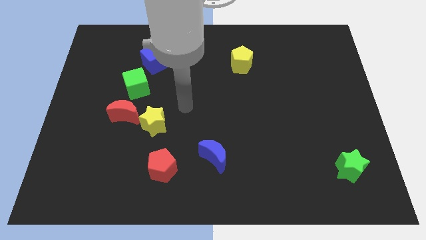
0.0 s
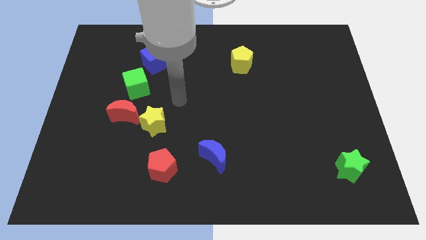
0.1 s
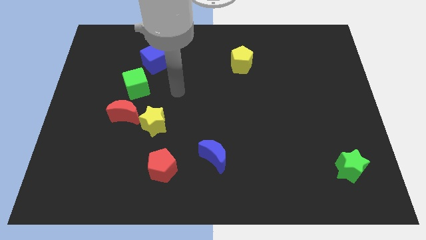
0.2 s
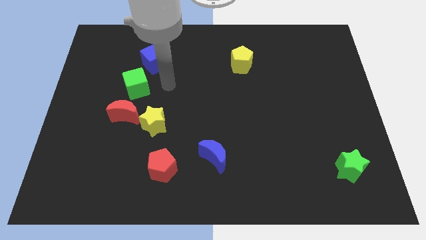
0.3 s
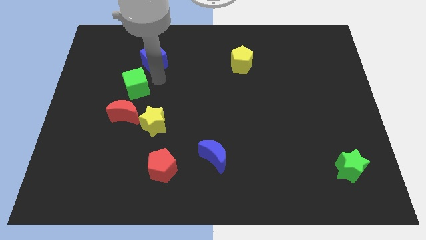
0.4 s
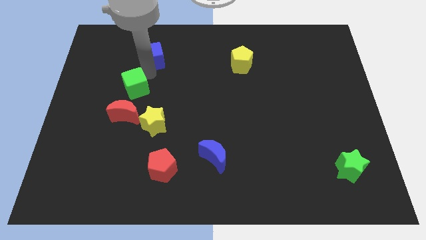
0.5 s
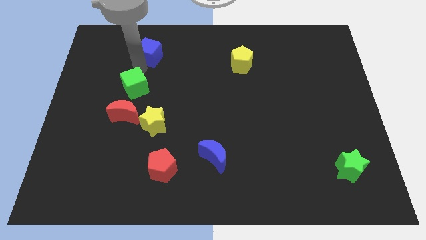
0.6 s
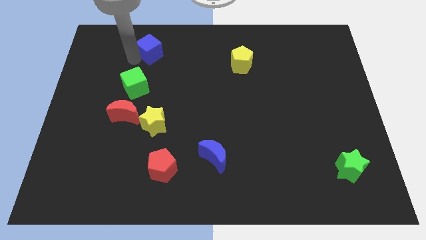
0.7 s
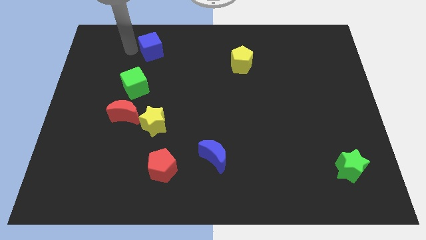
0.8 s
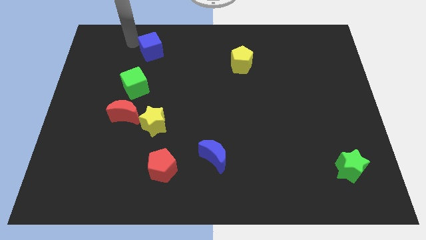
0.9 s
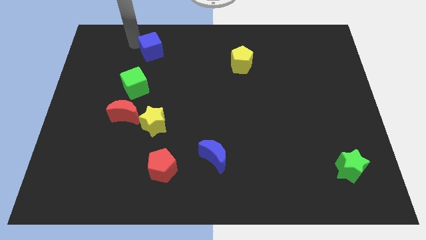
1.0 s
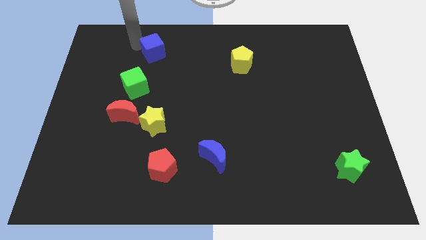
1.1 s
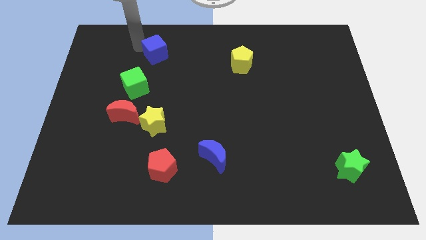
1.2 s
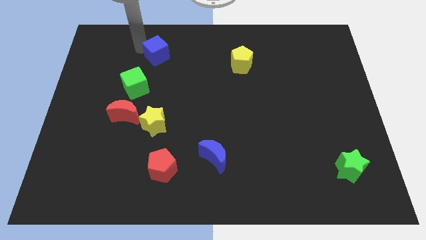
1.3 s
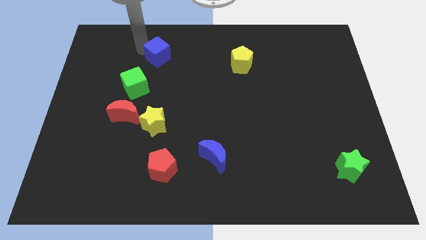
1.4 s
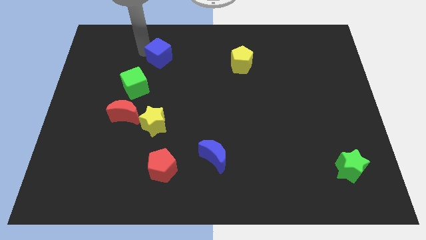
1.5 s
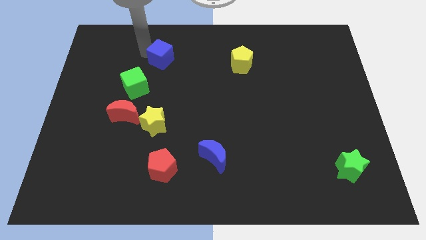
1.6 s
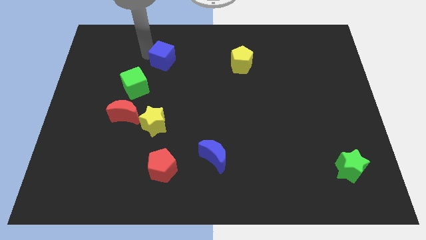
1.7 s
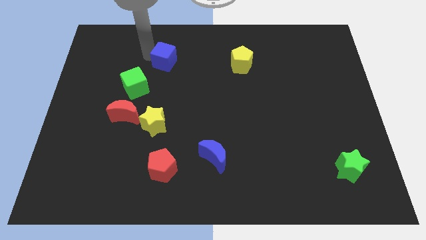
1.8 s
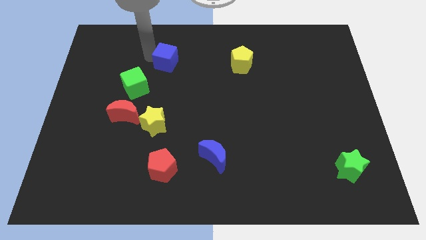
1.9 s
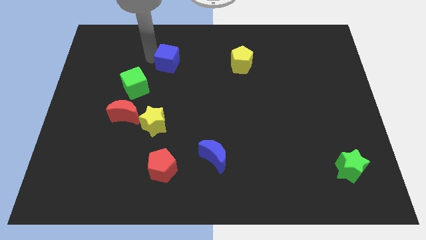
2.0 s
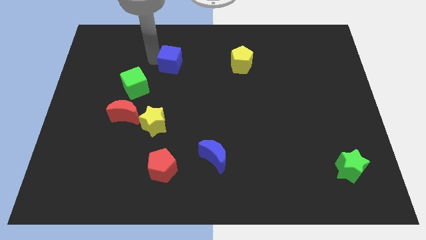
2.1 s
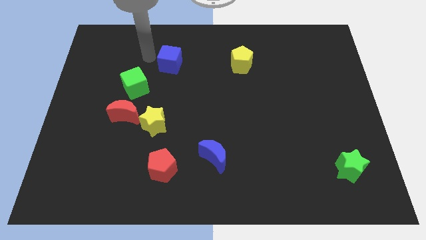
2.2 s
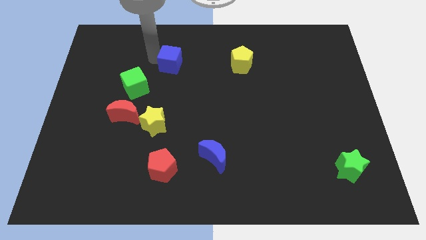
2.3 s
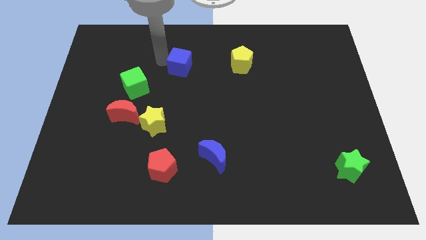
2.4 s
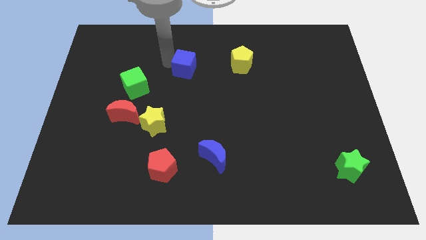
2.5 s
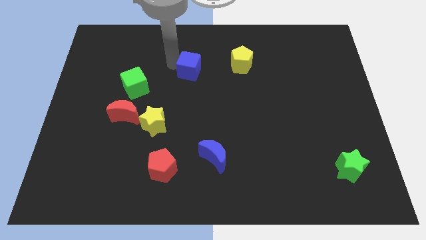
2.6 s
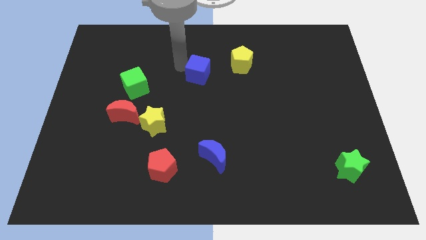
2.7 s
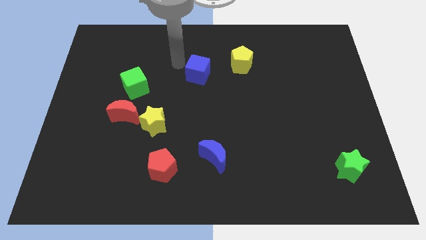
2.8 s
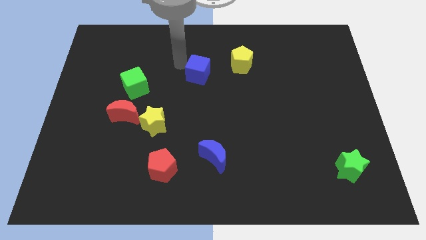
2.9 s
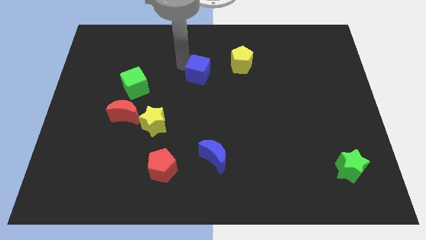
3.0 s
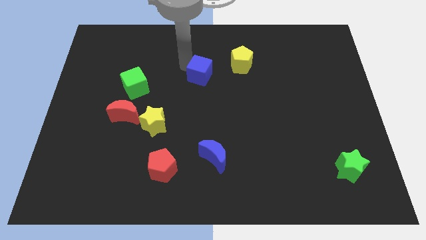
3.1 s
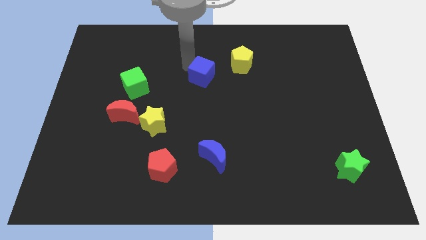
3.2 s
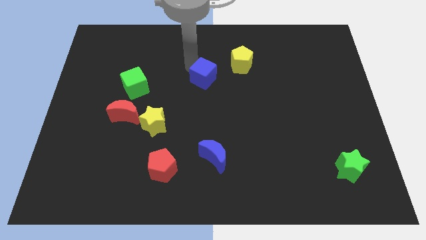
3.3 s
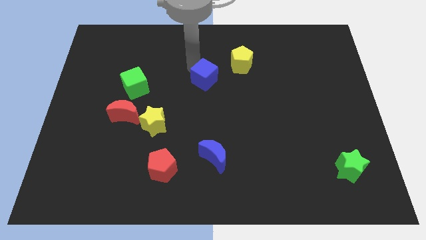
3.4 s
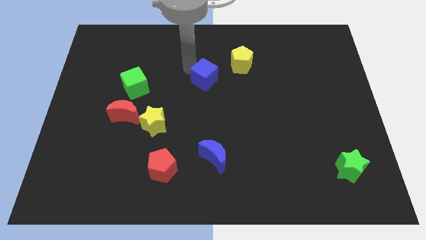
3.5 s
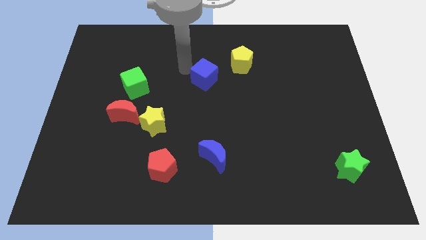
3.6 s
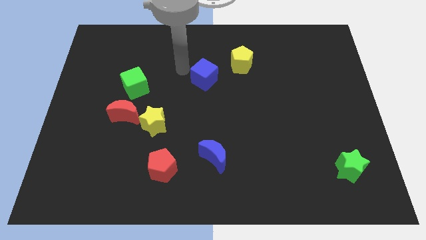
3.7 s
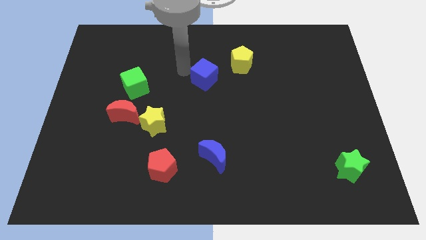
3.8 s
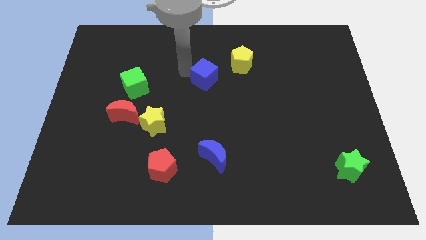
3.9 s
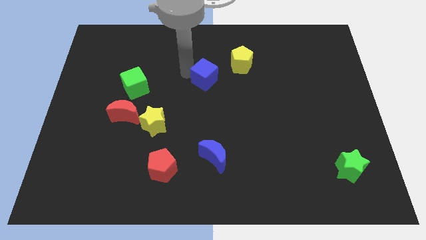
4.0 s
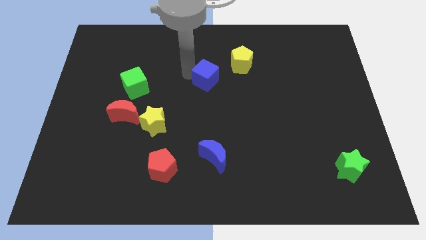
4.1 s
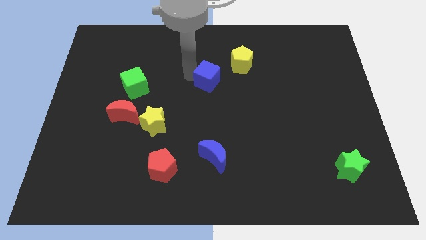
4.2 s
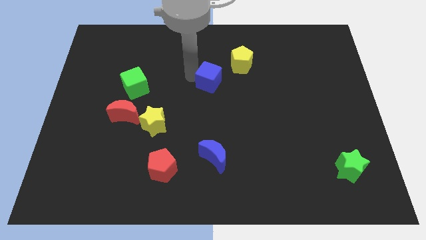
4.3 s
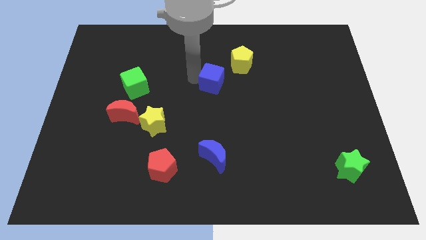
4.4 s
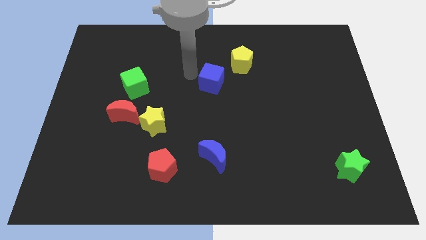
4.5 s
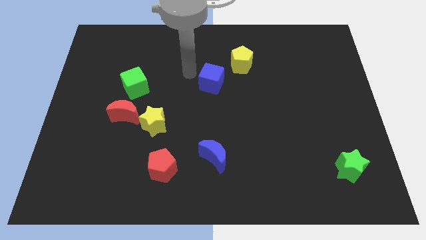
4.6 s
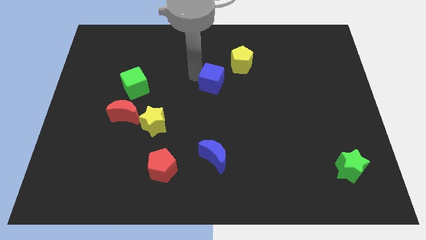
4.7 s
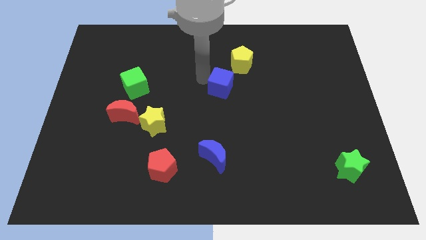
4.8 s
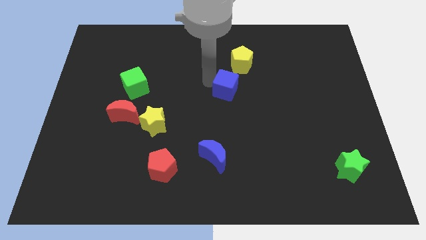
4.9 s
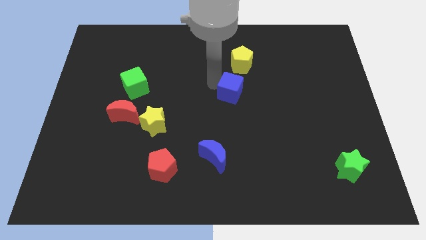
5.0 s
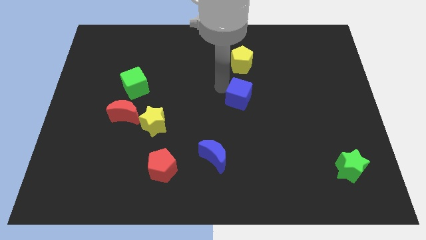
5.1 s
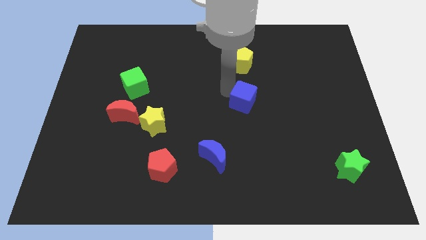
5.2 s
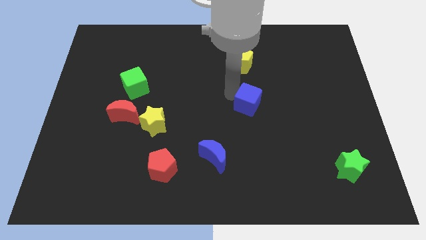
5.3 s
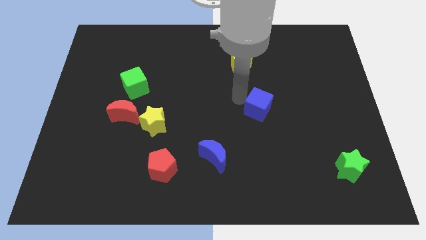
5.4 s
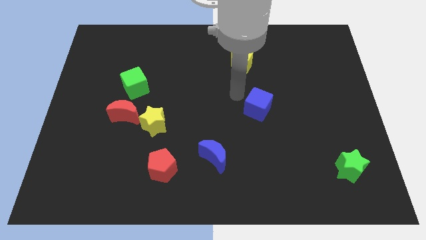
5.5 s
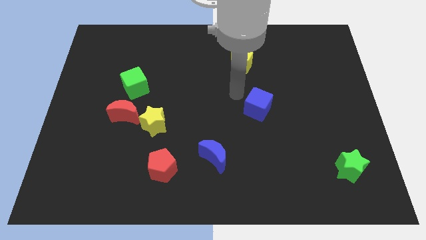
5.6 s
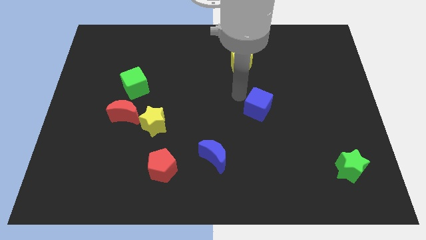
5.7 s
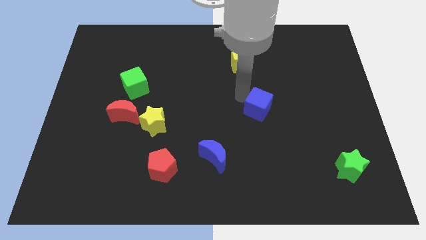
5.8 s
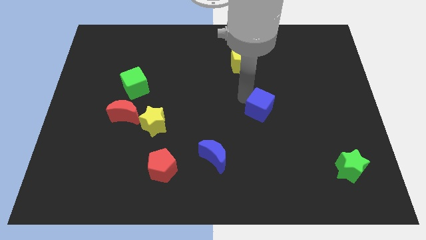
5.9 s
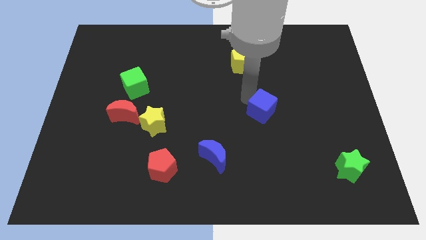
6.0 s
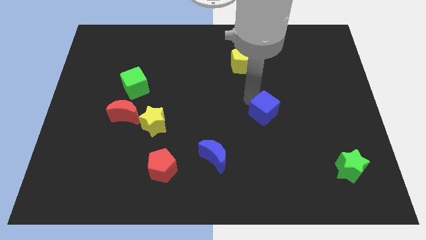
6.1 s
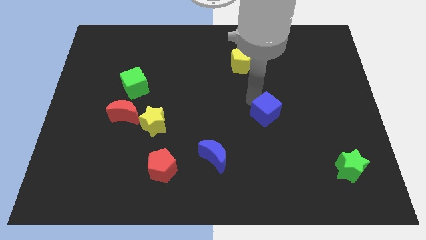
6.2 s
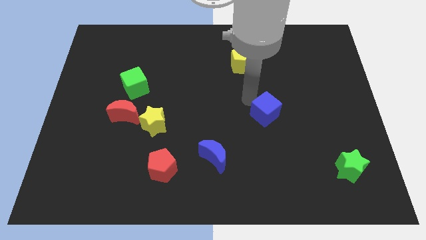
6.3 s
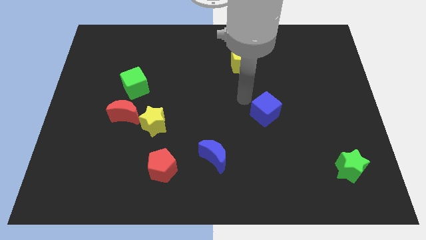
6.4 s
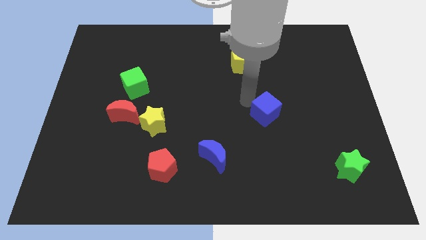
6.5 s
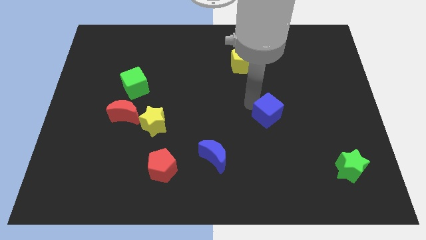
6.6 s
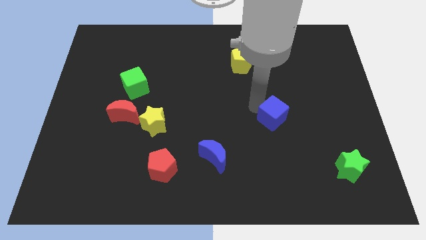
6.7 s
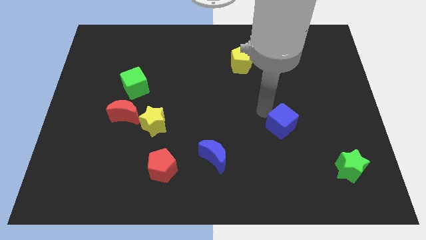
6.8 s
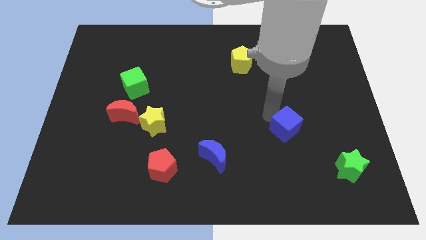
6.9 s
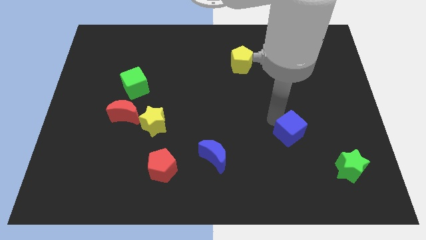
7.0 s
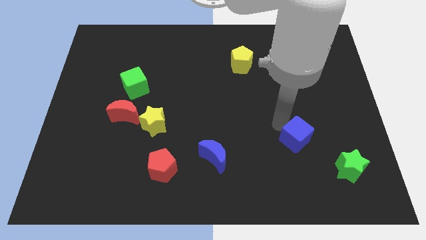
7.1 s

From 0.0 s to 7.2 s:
push the blue cube to the top left side of the green star
